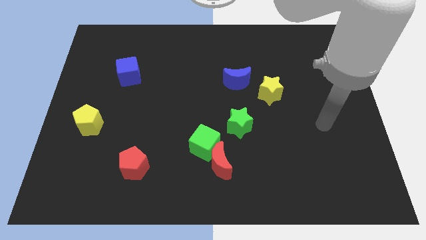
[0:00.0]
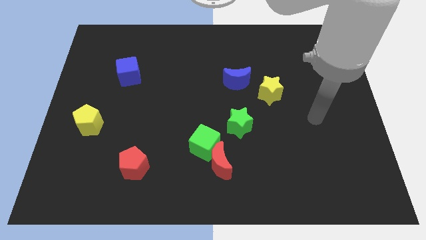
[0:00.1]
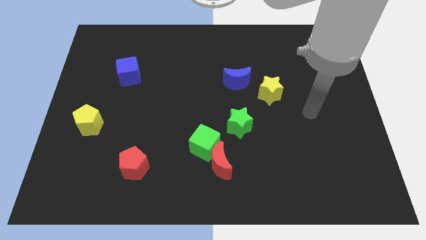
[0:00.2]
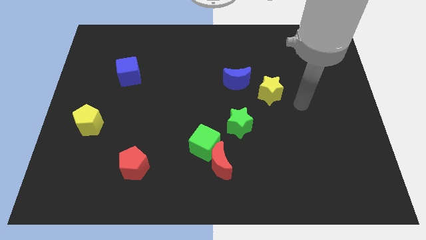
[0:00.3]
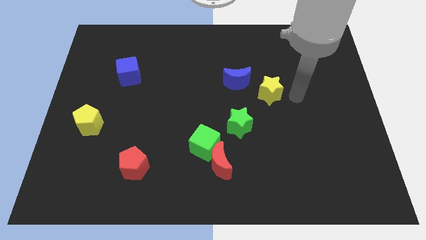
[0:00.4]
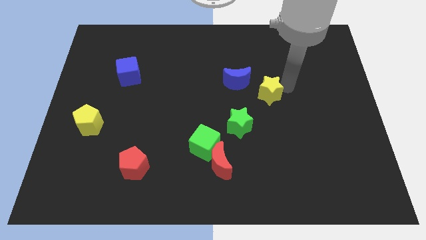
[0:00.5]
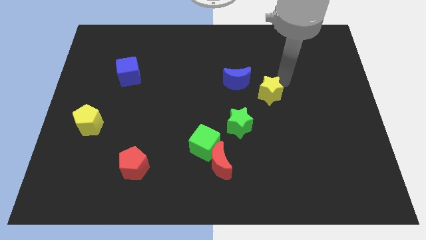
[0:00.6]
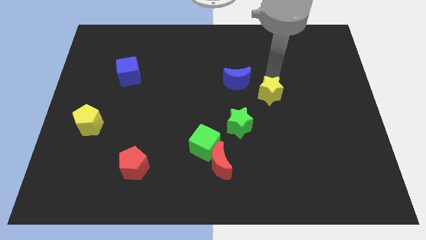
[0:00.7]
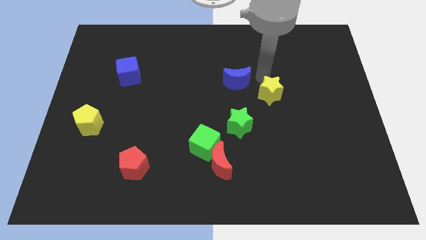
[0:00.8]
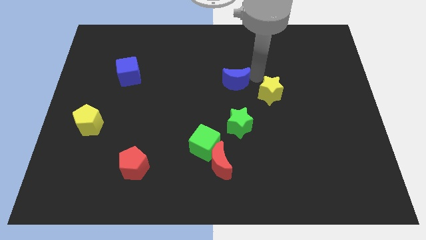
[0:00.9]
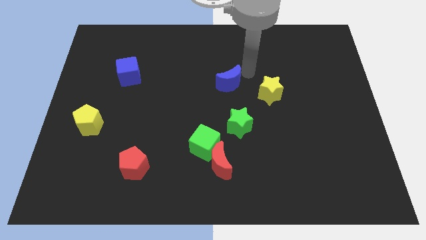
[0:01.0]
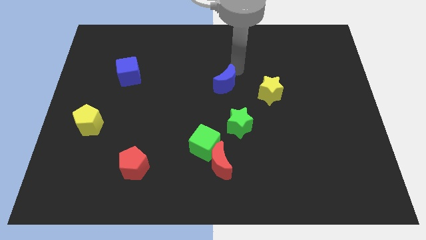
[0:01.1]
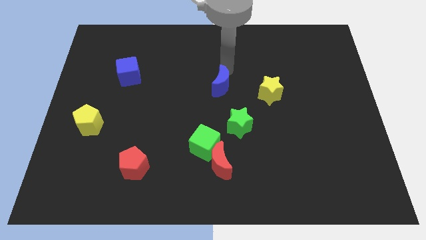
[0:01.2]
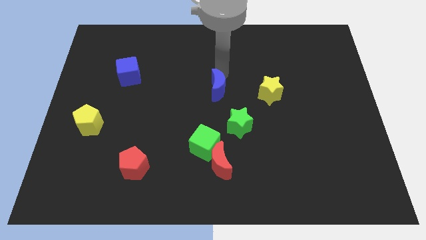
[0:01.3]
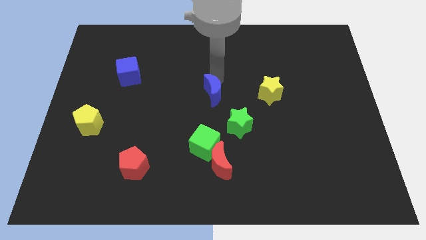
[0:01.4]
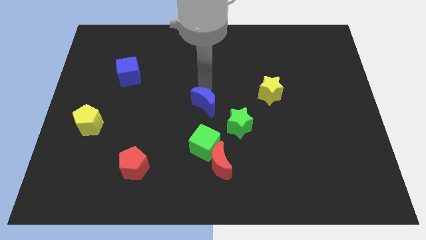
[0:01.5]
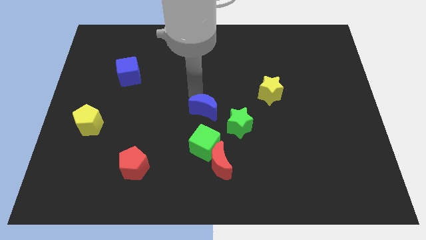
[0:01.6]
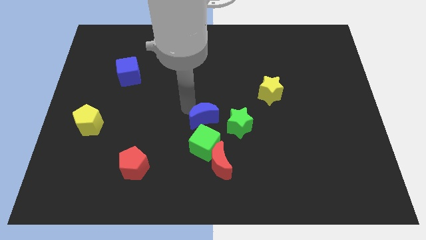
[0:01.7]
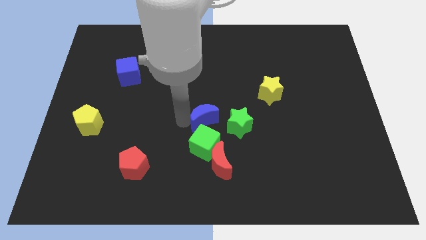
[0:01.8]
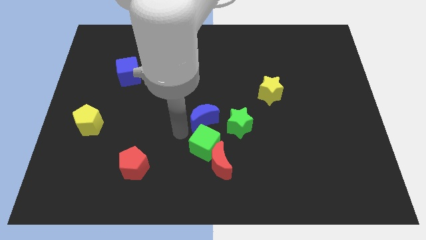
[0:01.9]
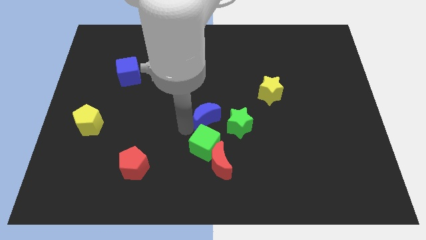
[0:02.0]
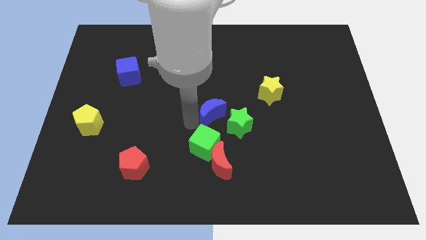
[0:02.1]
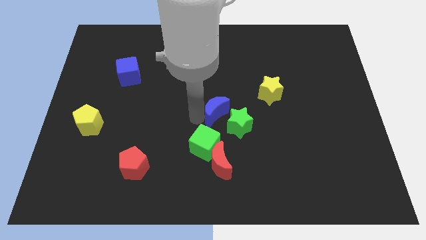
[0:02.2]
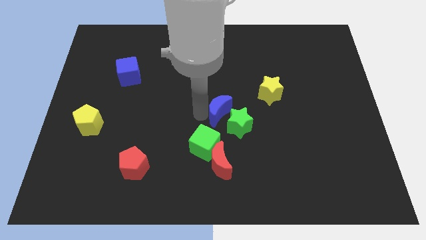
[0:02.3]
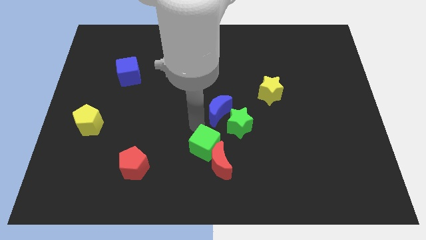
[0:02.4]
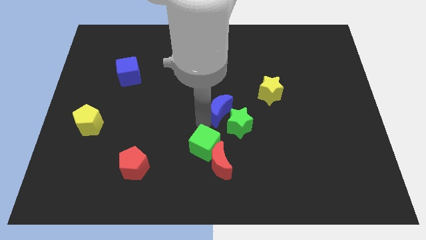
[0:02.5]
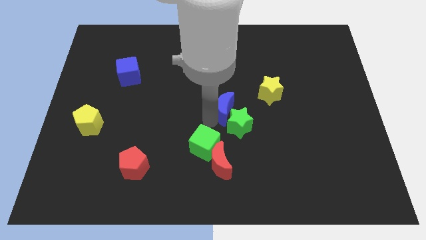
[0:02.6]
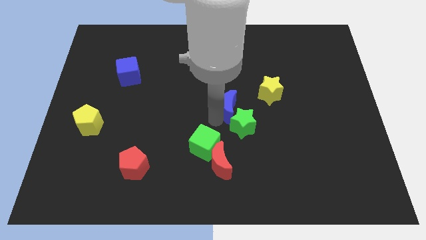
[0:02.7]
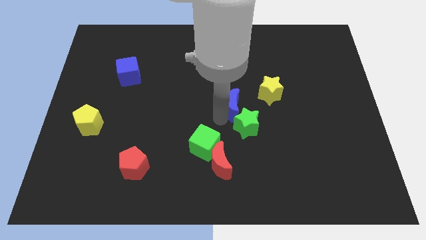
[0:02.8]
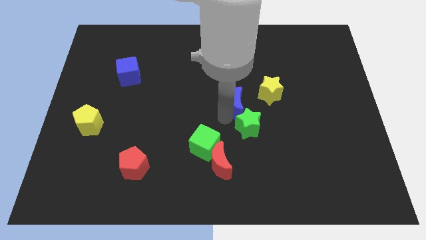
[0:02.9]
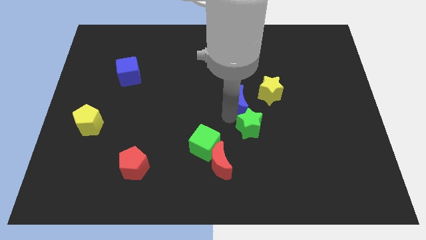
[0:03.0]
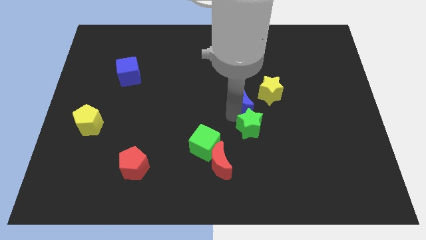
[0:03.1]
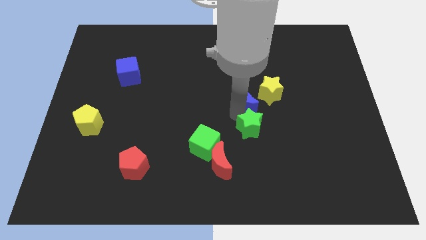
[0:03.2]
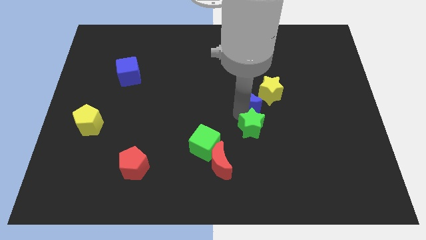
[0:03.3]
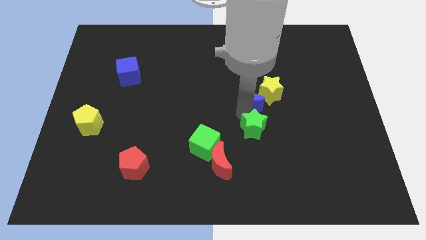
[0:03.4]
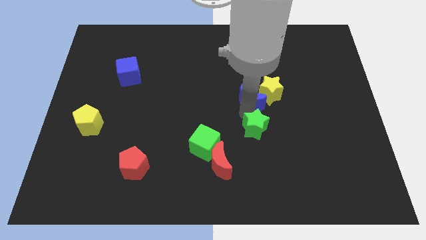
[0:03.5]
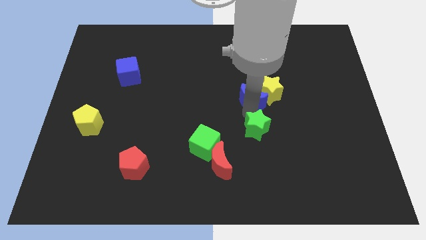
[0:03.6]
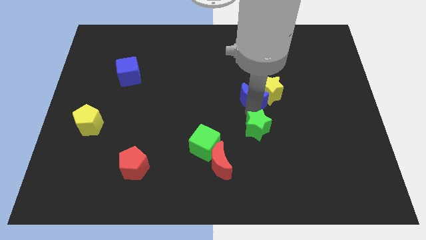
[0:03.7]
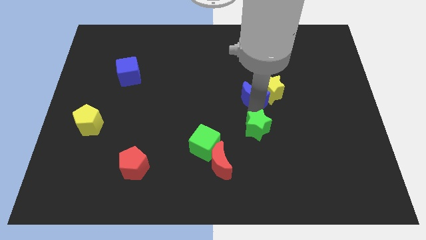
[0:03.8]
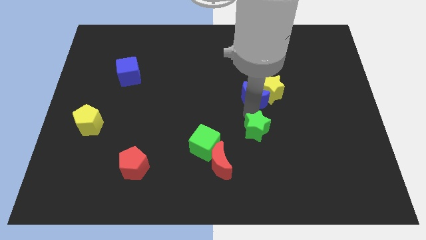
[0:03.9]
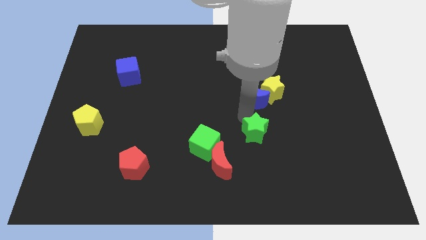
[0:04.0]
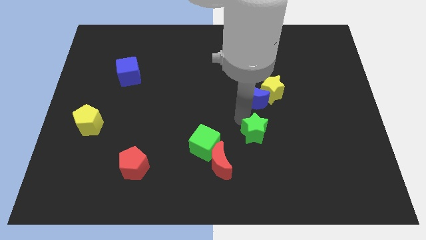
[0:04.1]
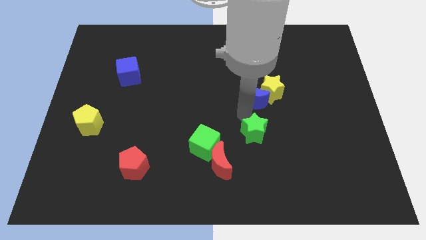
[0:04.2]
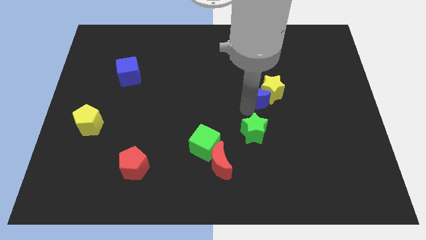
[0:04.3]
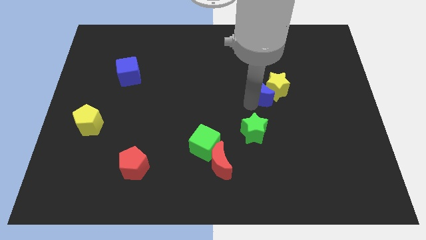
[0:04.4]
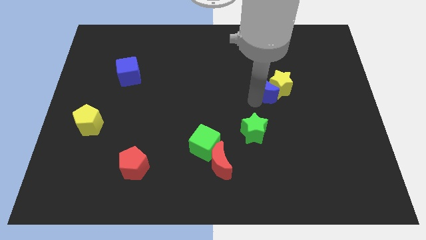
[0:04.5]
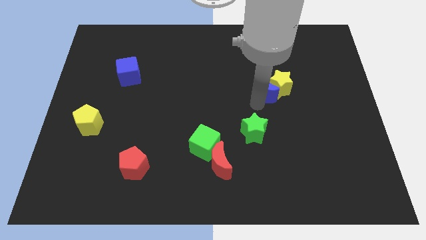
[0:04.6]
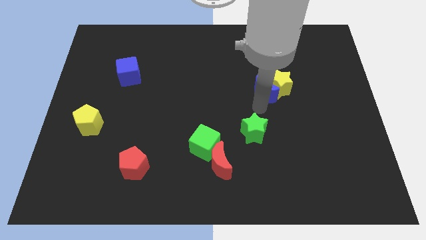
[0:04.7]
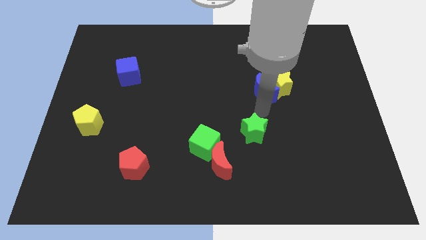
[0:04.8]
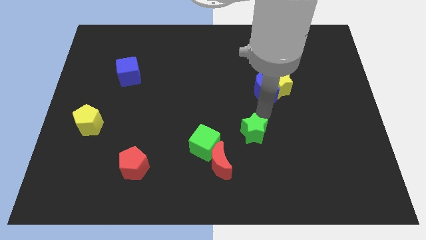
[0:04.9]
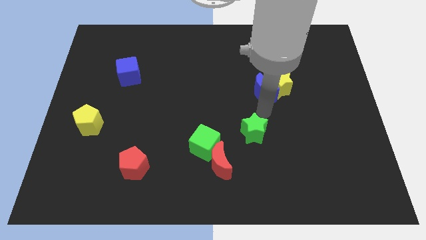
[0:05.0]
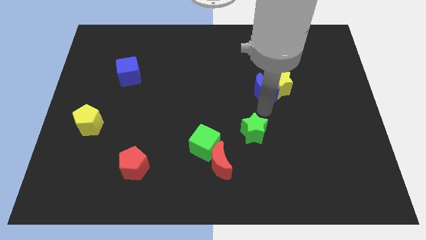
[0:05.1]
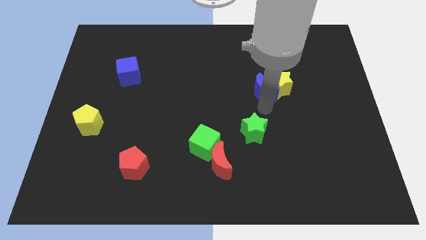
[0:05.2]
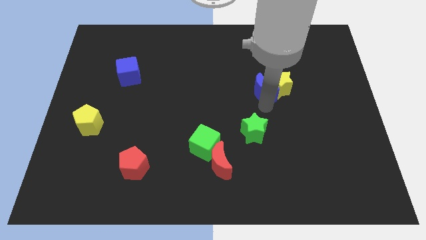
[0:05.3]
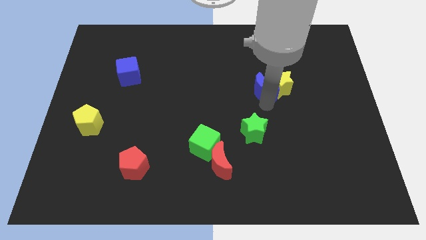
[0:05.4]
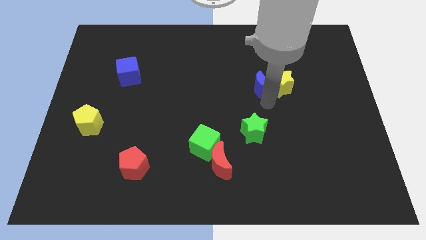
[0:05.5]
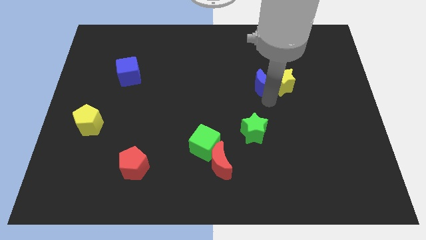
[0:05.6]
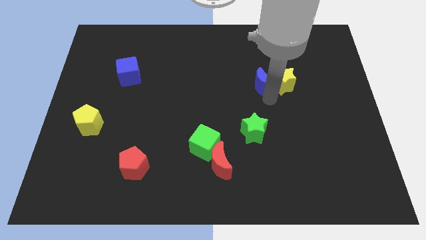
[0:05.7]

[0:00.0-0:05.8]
push the blue moon a bit right

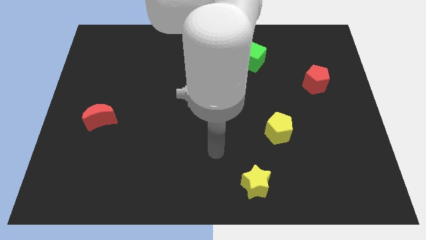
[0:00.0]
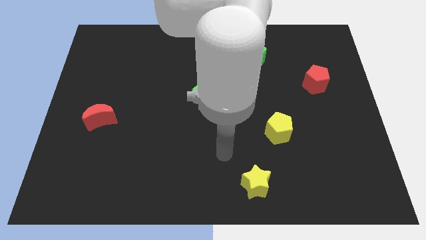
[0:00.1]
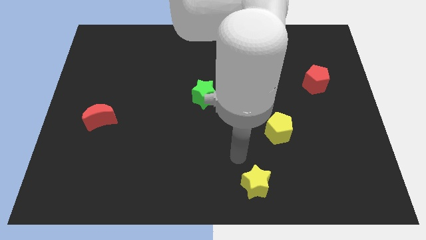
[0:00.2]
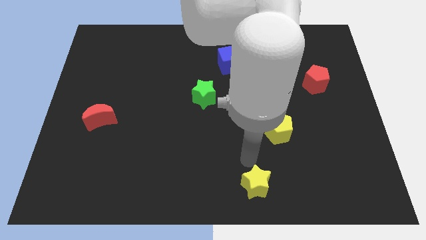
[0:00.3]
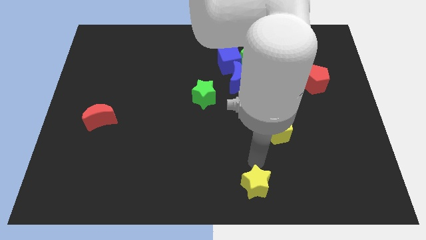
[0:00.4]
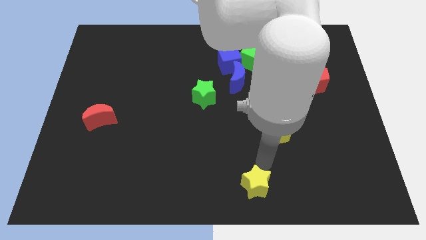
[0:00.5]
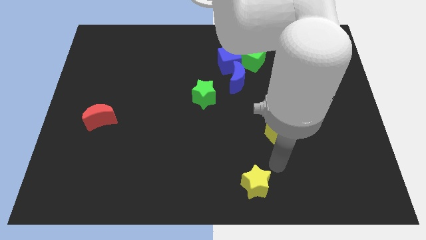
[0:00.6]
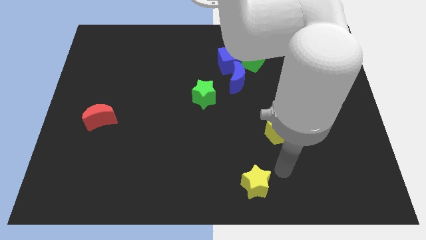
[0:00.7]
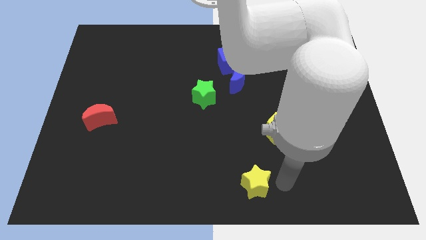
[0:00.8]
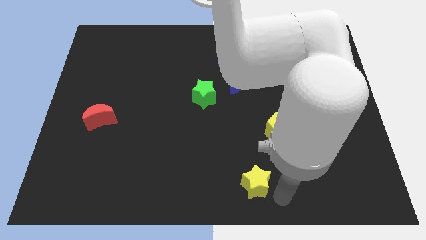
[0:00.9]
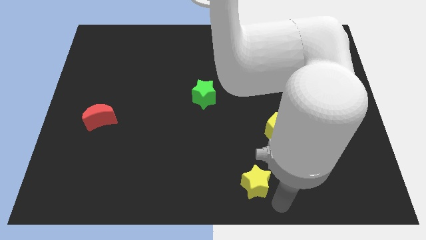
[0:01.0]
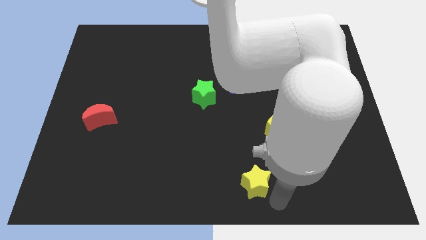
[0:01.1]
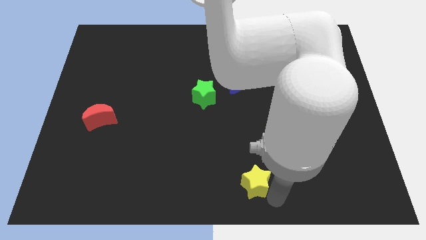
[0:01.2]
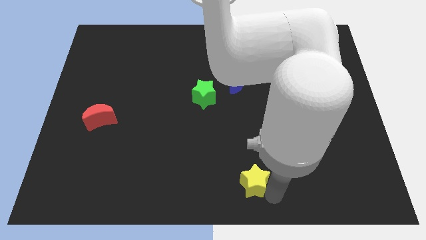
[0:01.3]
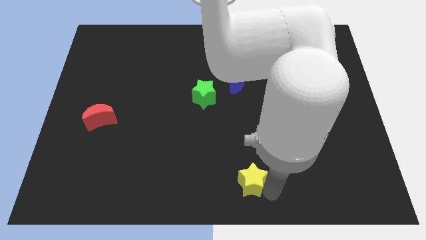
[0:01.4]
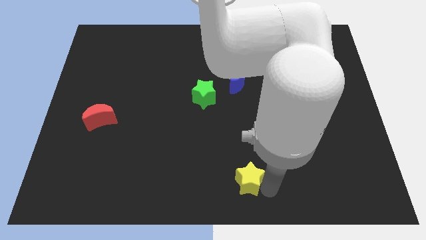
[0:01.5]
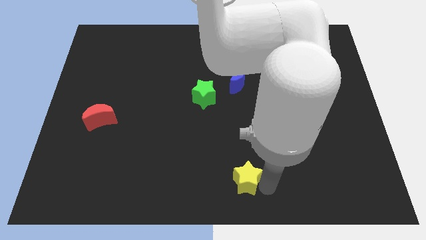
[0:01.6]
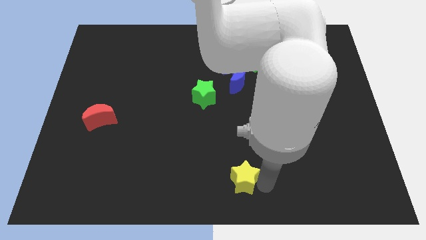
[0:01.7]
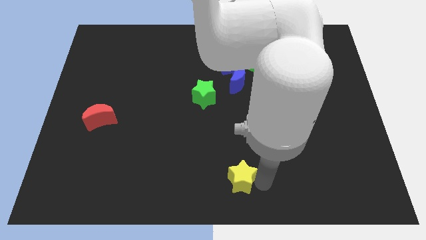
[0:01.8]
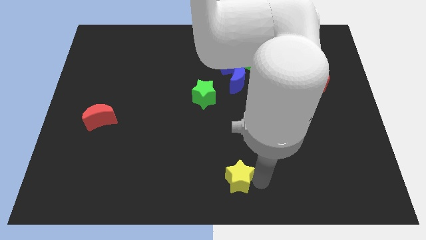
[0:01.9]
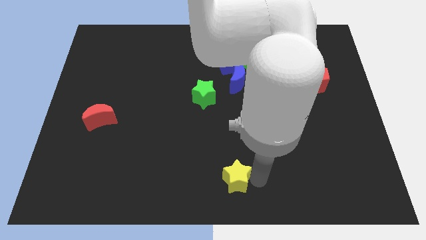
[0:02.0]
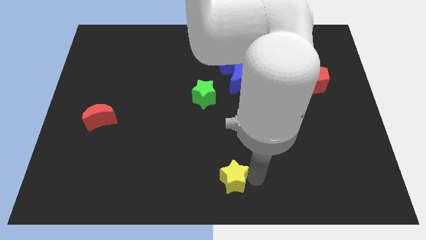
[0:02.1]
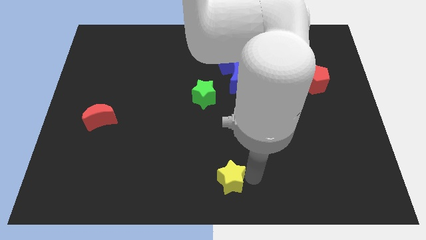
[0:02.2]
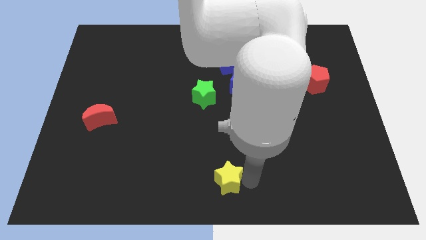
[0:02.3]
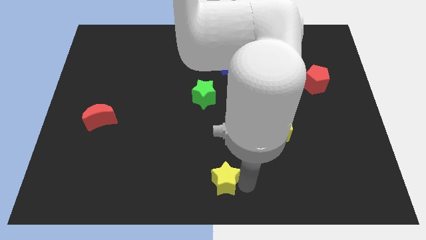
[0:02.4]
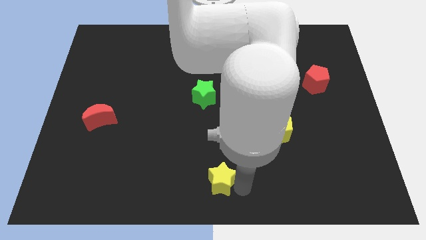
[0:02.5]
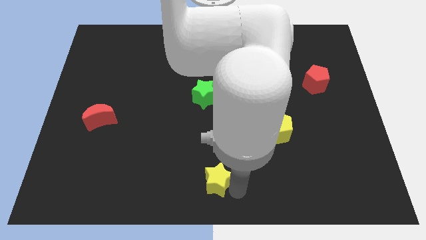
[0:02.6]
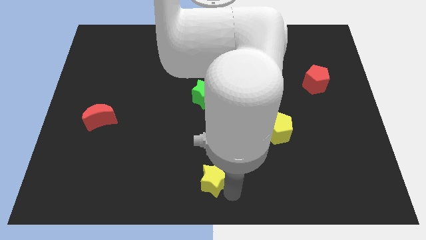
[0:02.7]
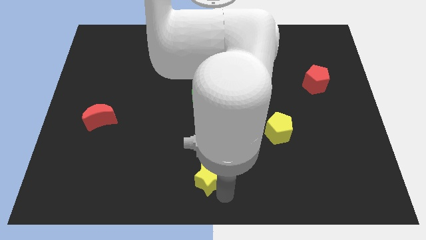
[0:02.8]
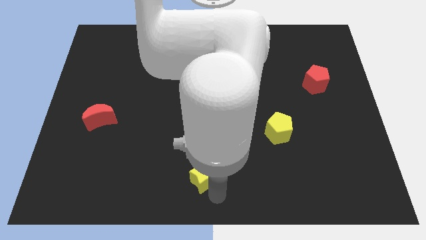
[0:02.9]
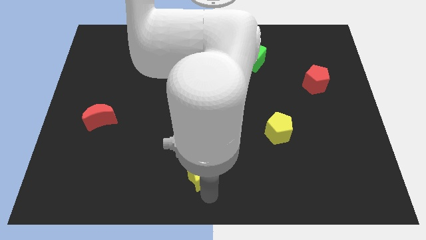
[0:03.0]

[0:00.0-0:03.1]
move the yellow star a bit up and left diagonally
